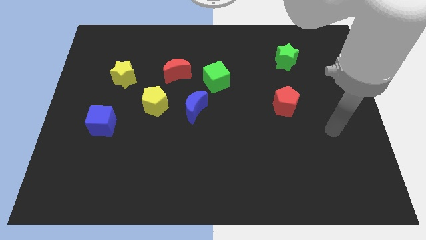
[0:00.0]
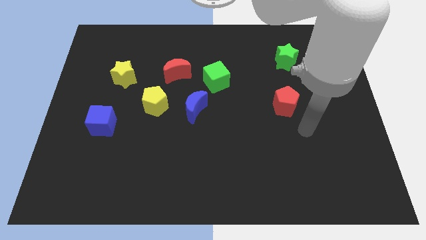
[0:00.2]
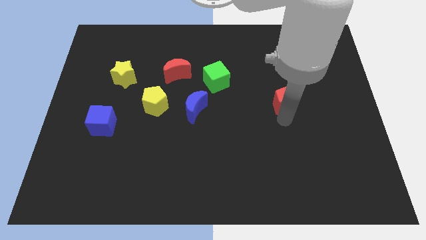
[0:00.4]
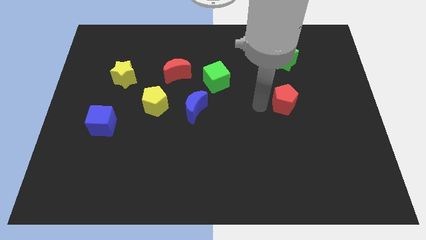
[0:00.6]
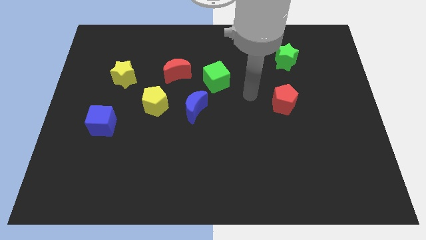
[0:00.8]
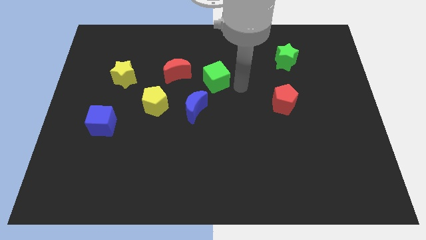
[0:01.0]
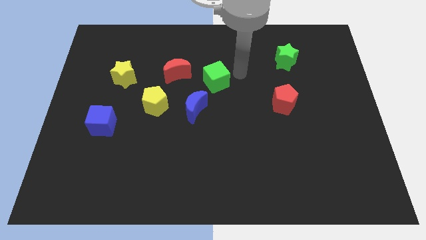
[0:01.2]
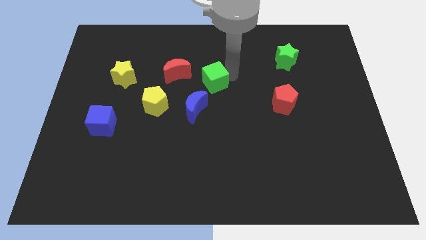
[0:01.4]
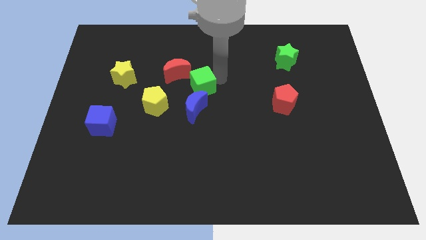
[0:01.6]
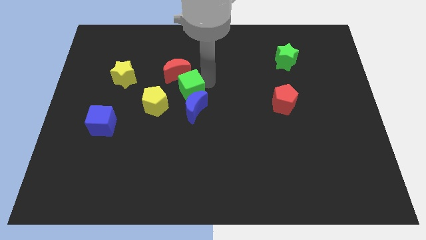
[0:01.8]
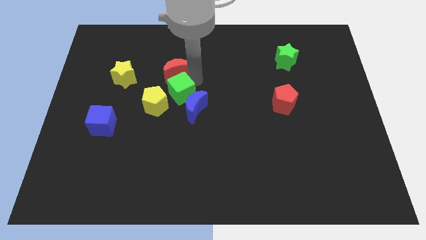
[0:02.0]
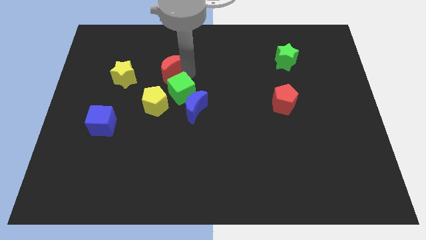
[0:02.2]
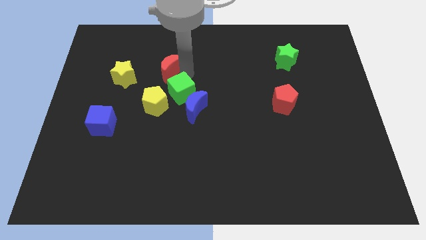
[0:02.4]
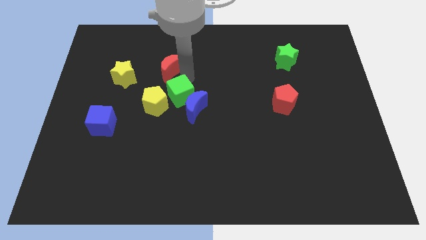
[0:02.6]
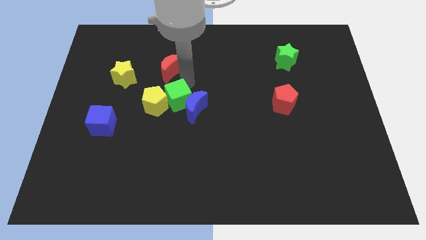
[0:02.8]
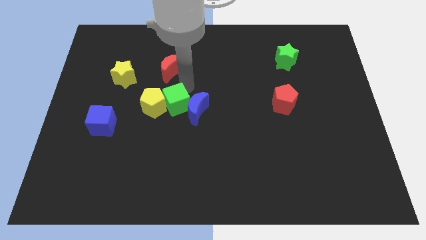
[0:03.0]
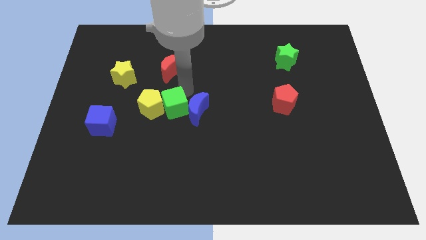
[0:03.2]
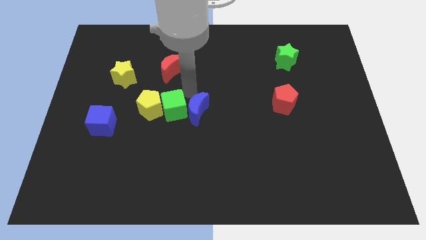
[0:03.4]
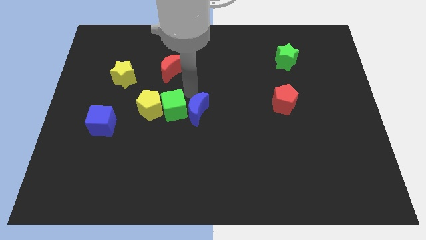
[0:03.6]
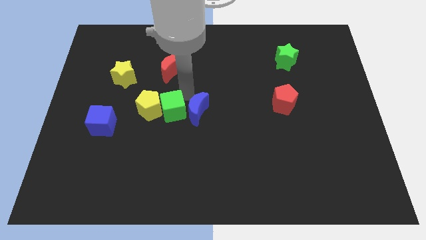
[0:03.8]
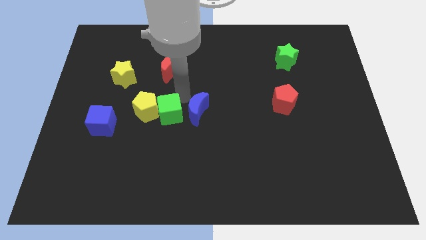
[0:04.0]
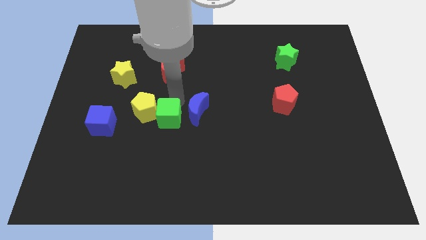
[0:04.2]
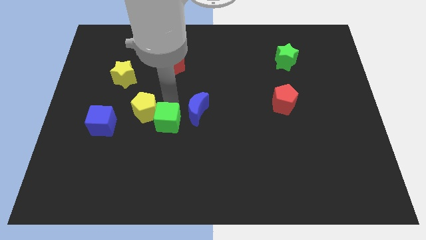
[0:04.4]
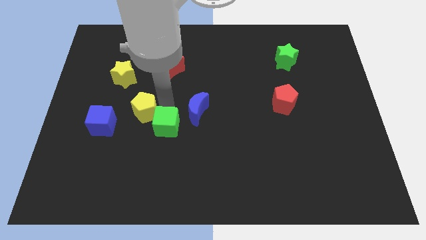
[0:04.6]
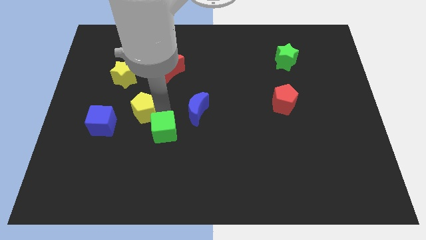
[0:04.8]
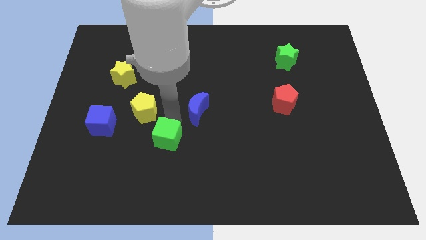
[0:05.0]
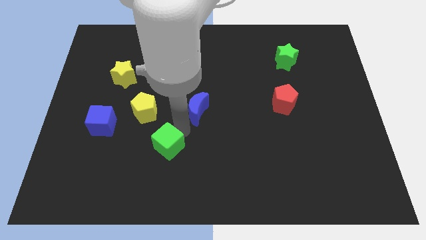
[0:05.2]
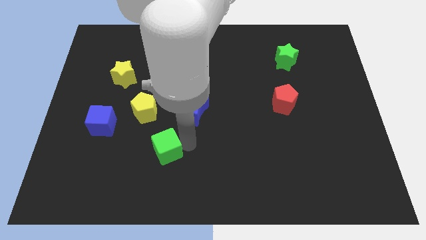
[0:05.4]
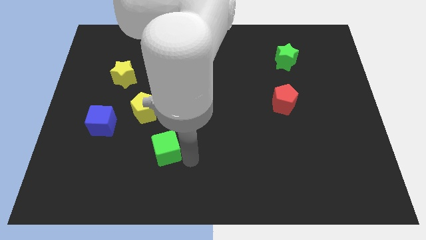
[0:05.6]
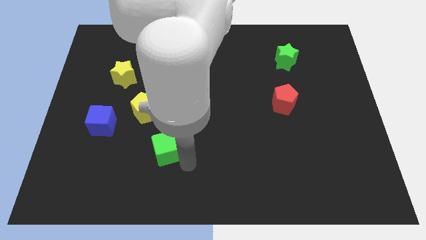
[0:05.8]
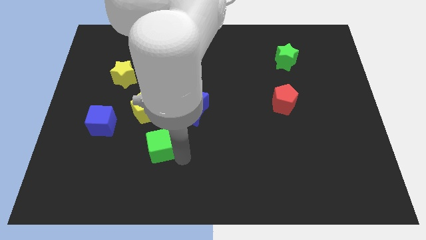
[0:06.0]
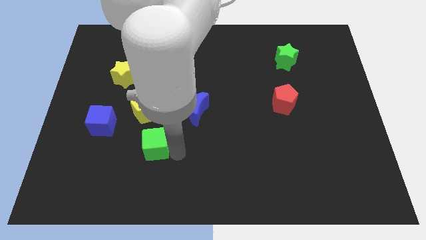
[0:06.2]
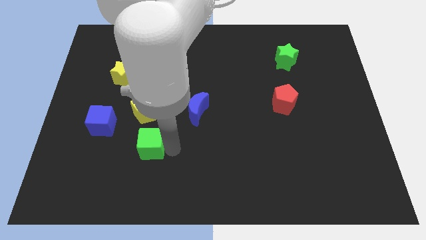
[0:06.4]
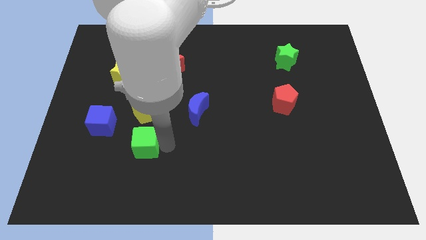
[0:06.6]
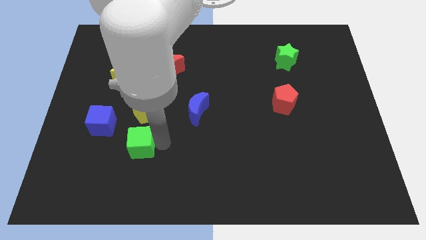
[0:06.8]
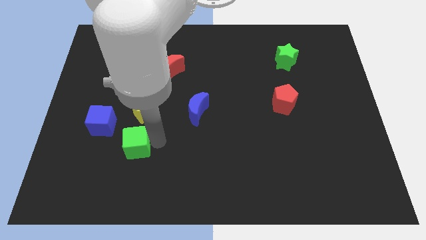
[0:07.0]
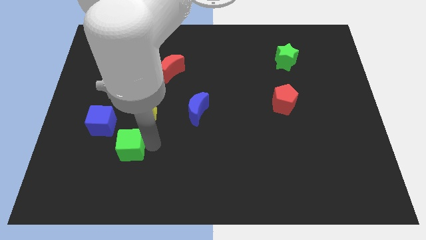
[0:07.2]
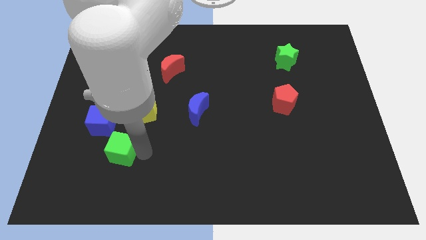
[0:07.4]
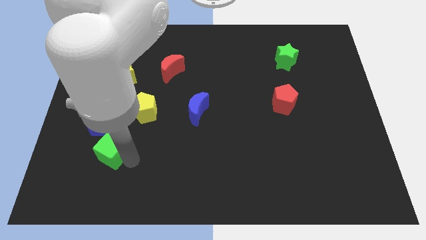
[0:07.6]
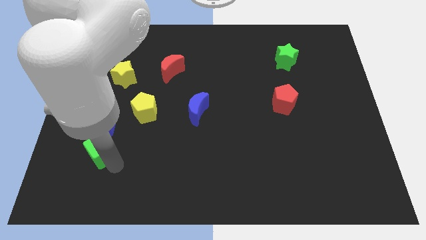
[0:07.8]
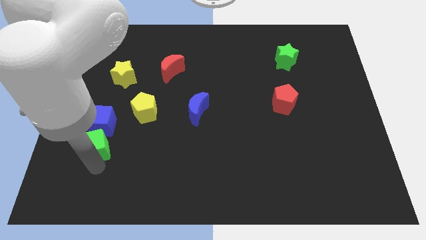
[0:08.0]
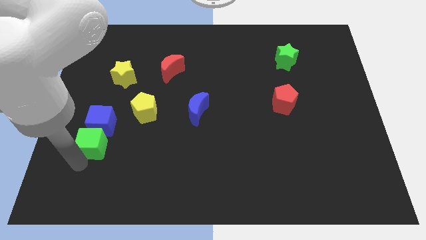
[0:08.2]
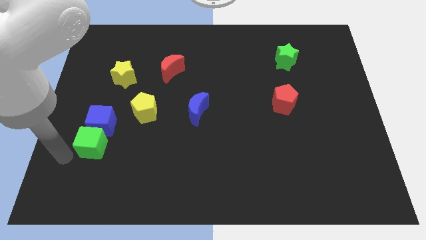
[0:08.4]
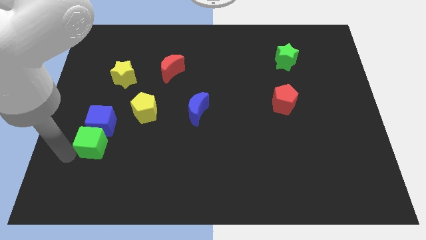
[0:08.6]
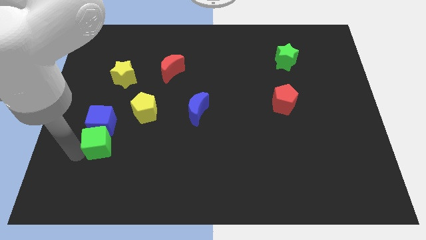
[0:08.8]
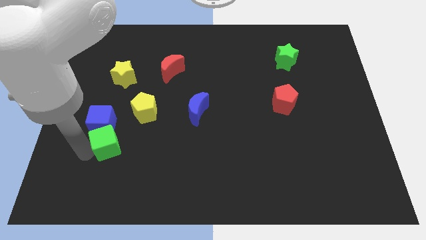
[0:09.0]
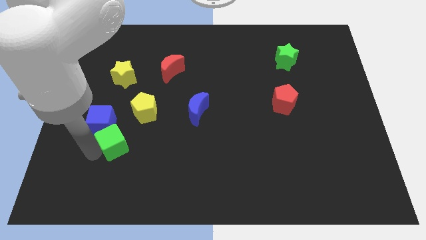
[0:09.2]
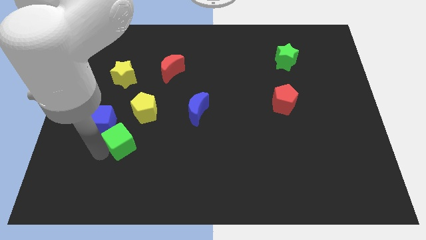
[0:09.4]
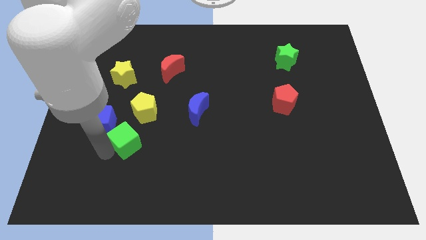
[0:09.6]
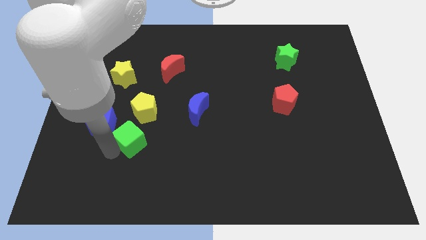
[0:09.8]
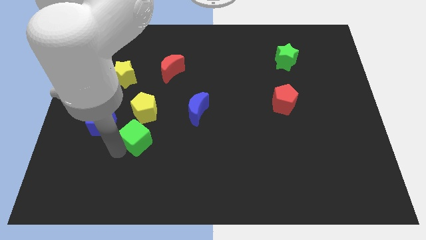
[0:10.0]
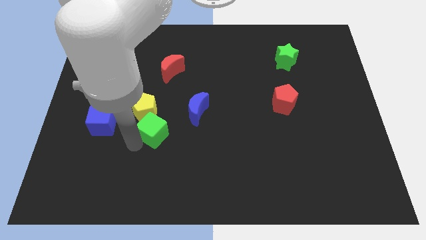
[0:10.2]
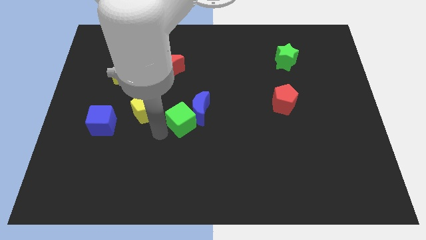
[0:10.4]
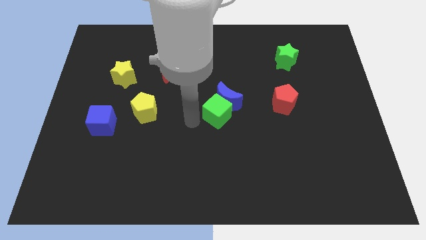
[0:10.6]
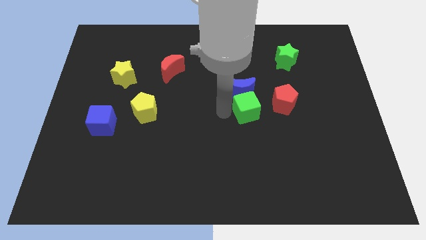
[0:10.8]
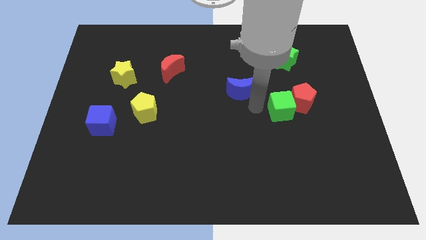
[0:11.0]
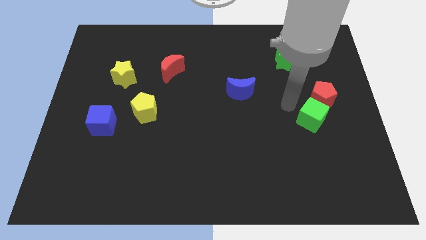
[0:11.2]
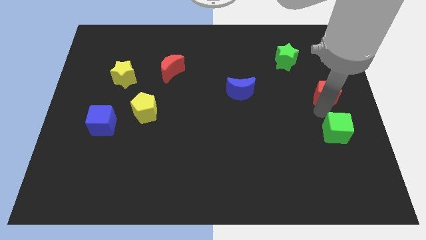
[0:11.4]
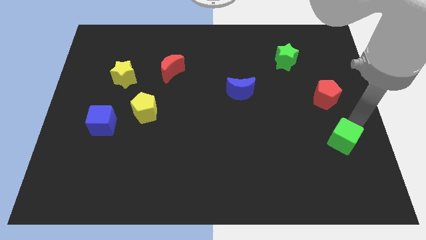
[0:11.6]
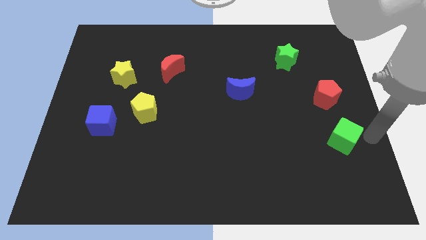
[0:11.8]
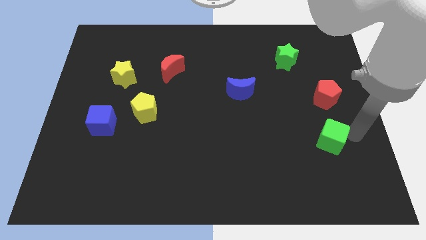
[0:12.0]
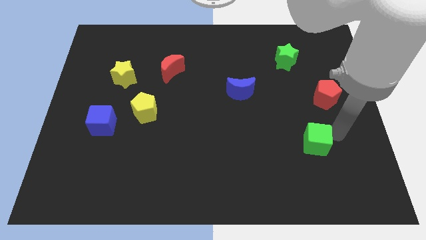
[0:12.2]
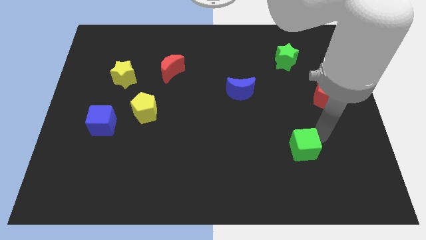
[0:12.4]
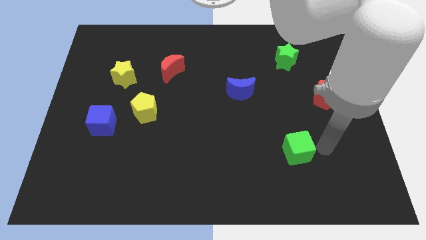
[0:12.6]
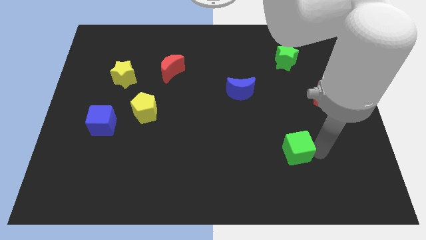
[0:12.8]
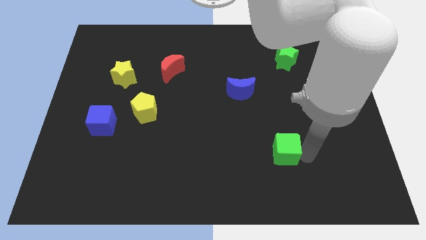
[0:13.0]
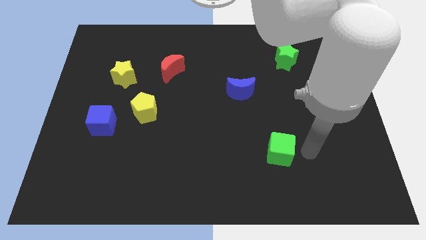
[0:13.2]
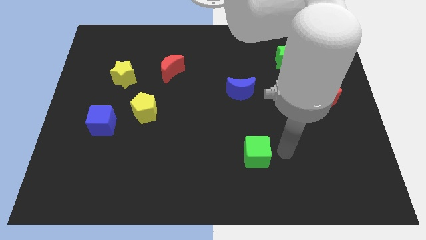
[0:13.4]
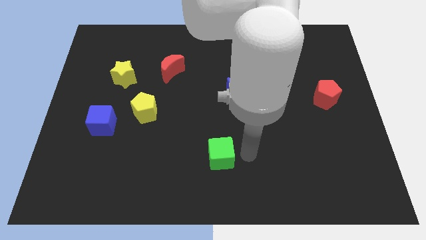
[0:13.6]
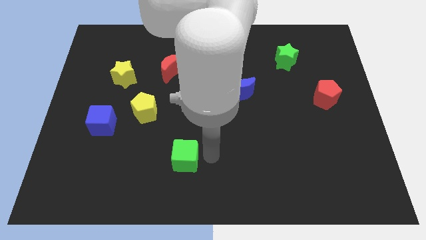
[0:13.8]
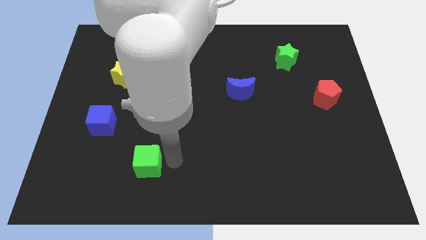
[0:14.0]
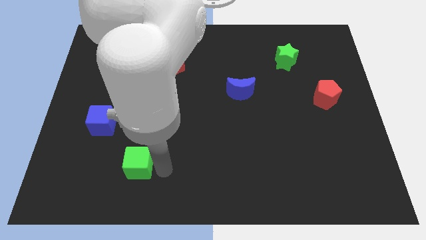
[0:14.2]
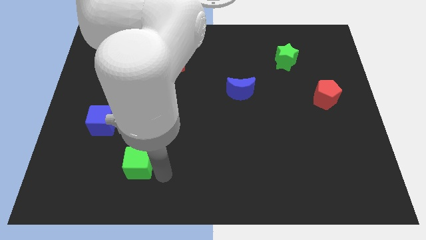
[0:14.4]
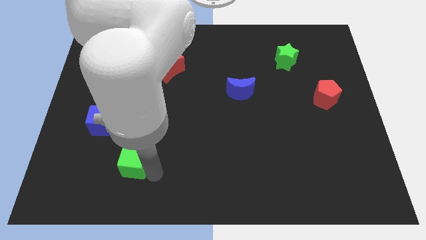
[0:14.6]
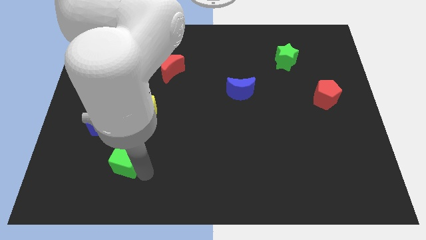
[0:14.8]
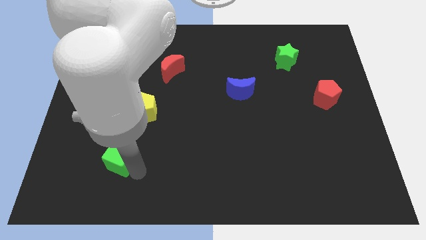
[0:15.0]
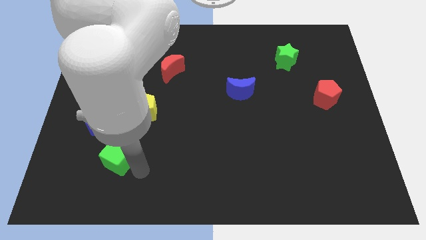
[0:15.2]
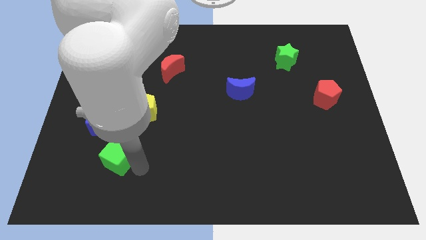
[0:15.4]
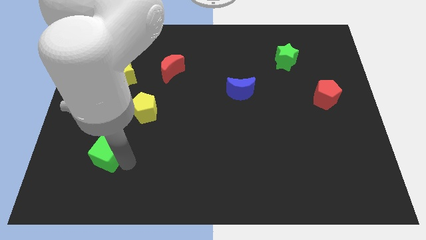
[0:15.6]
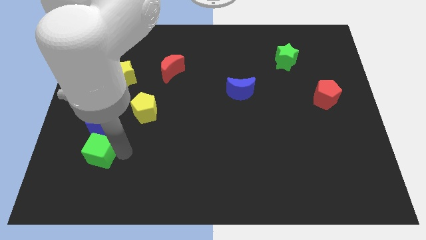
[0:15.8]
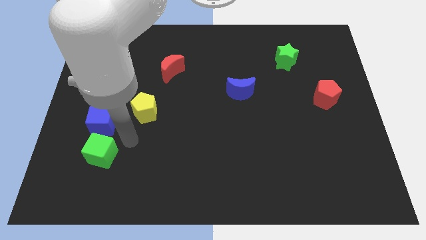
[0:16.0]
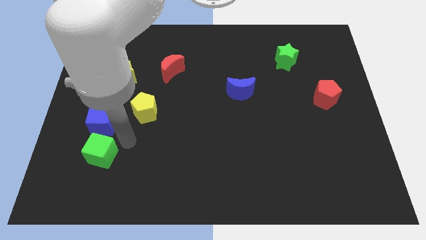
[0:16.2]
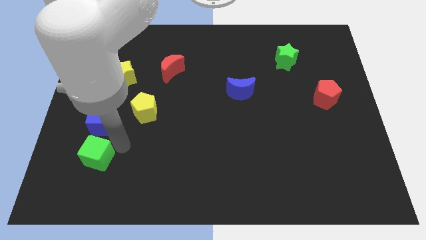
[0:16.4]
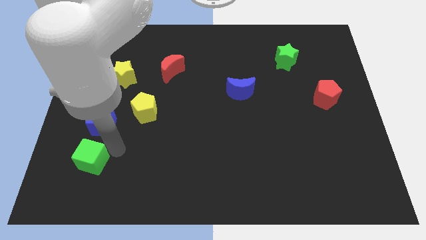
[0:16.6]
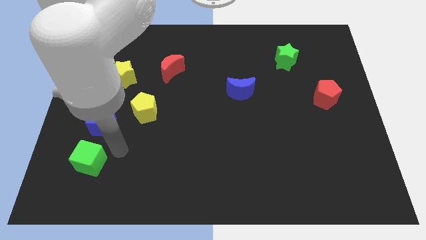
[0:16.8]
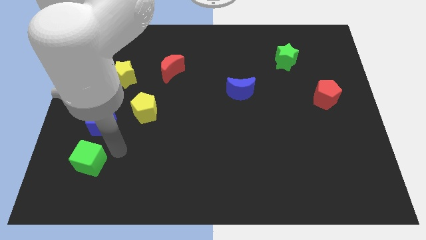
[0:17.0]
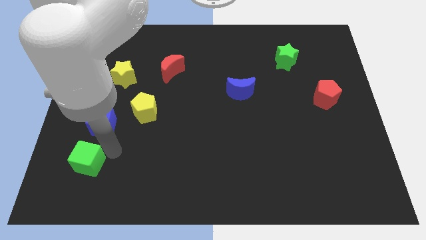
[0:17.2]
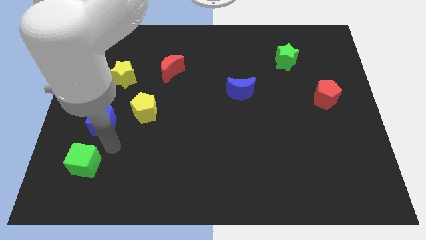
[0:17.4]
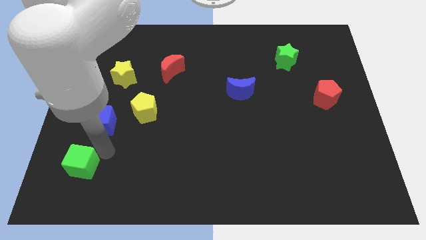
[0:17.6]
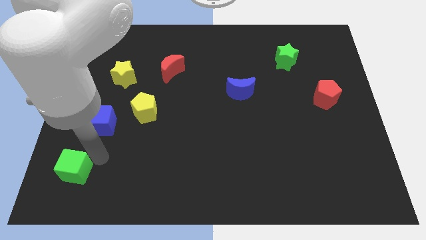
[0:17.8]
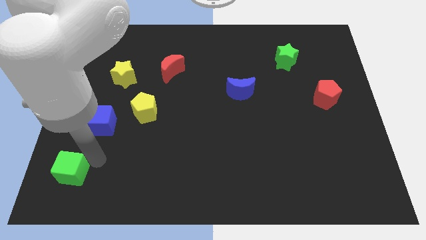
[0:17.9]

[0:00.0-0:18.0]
push the green cube to the bottom left
